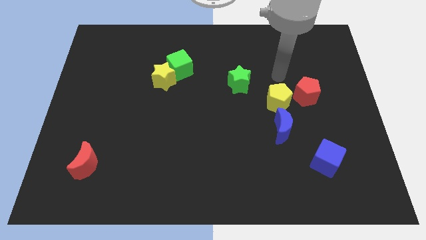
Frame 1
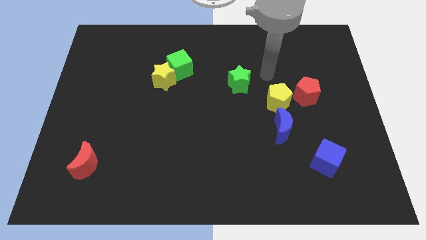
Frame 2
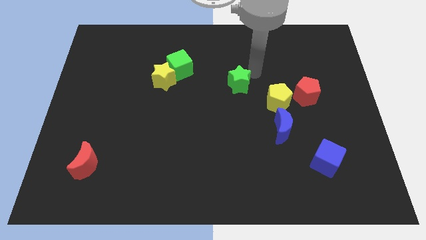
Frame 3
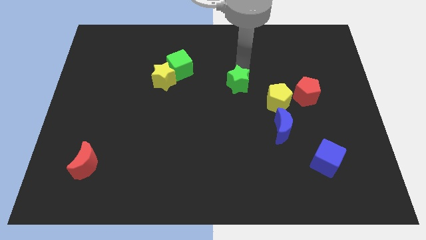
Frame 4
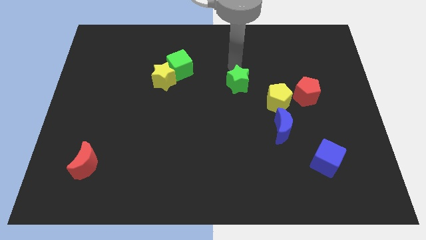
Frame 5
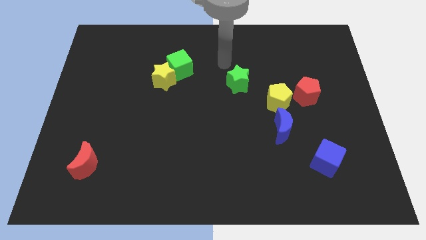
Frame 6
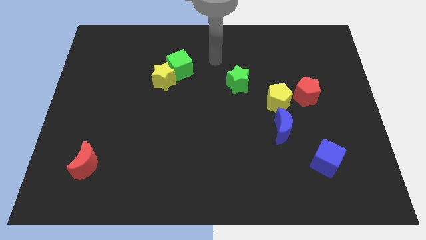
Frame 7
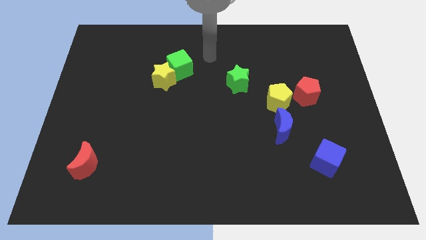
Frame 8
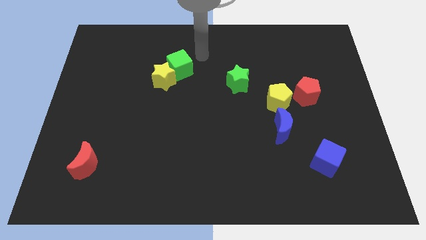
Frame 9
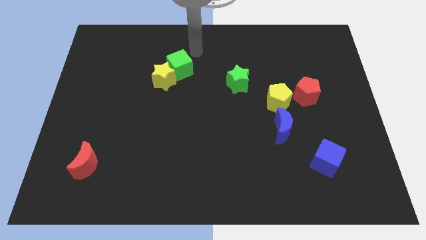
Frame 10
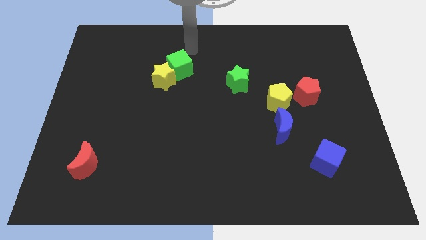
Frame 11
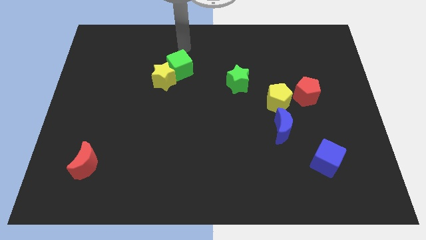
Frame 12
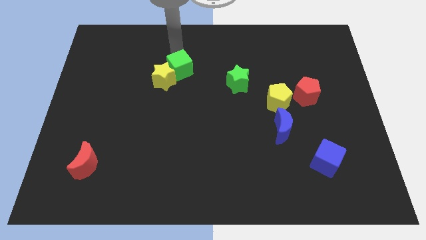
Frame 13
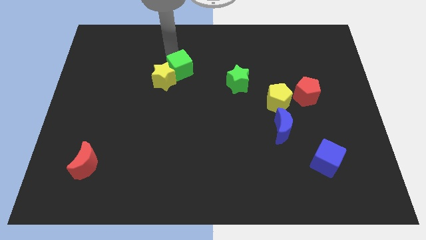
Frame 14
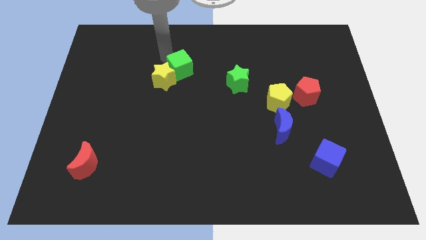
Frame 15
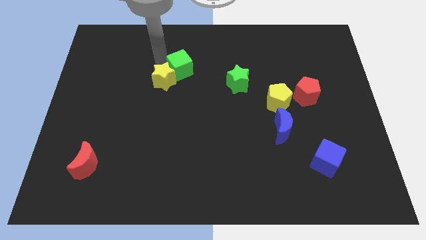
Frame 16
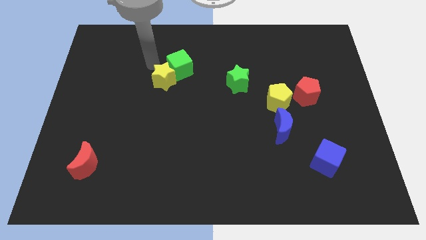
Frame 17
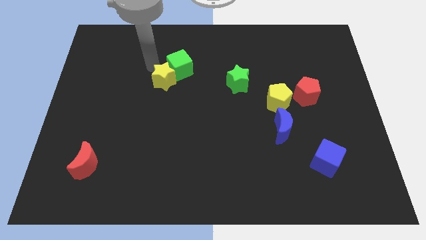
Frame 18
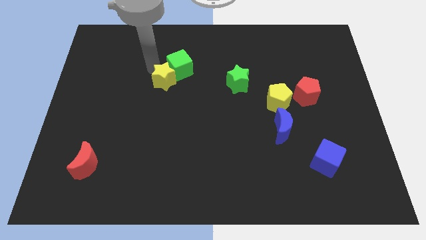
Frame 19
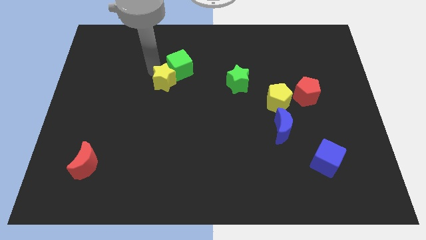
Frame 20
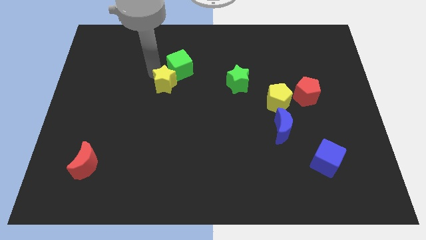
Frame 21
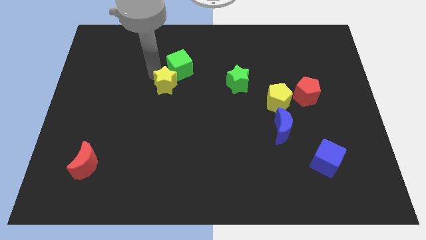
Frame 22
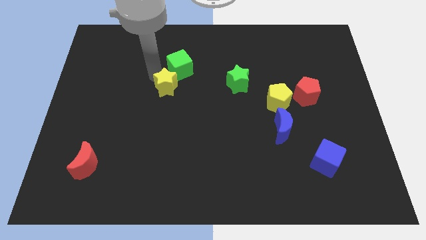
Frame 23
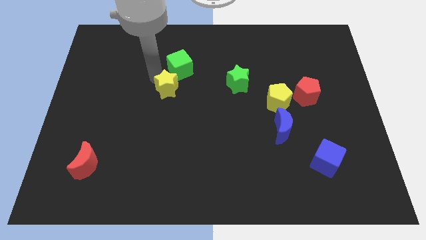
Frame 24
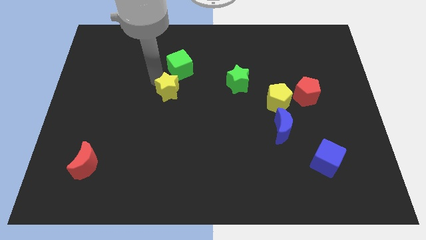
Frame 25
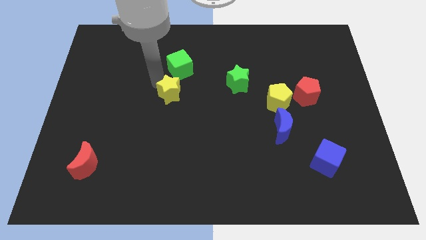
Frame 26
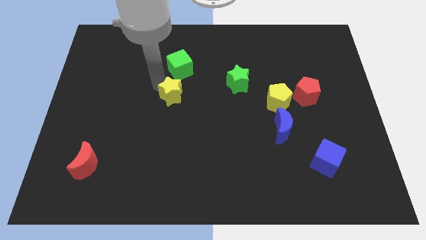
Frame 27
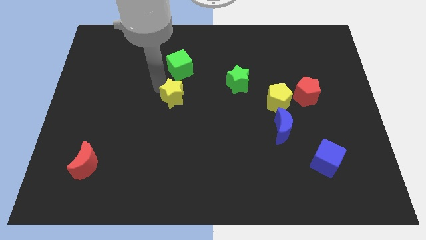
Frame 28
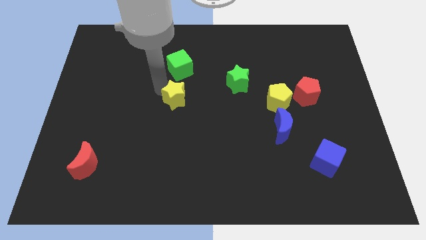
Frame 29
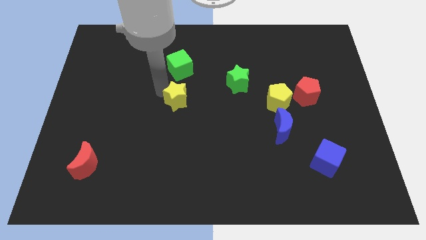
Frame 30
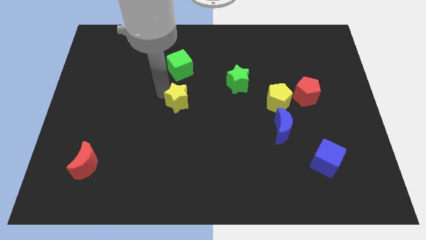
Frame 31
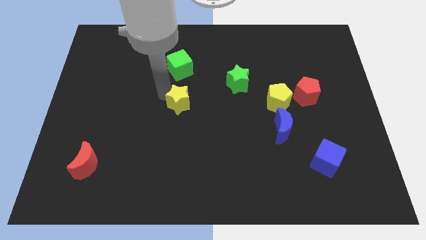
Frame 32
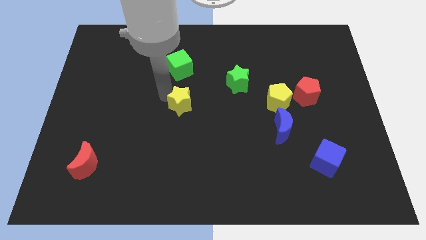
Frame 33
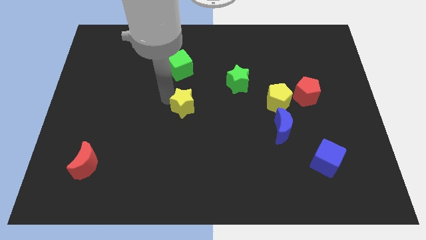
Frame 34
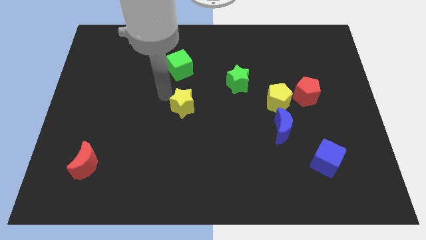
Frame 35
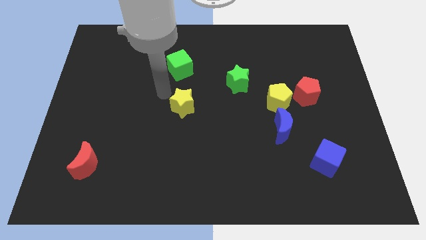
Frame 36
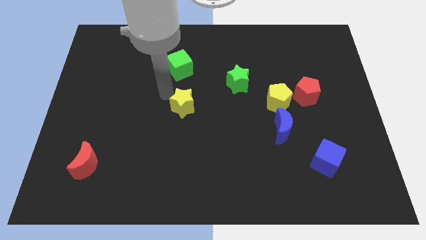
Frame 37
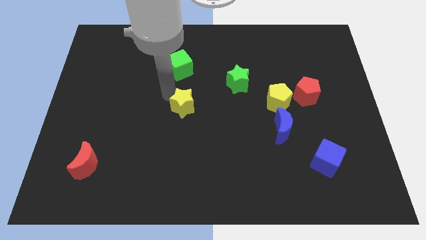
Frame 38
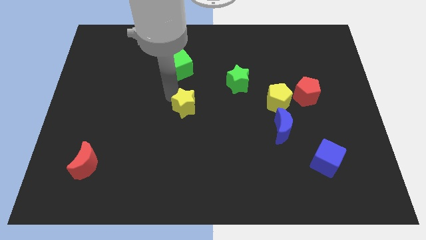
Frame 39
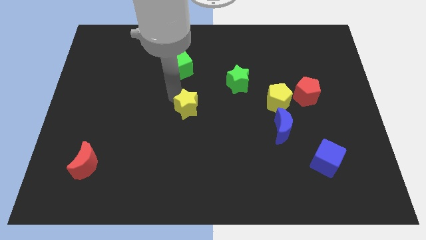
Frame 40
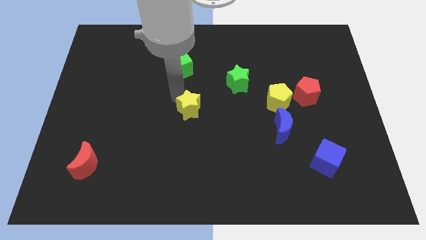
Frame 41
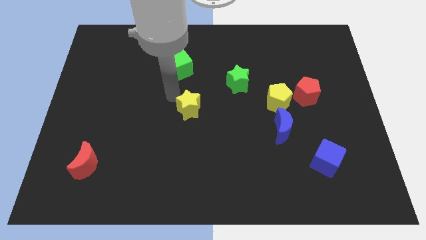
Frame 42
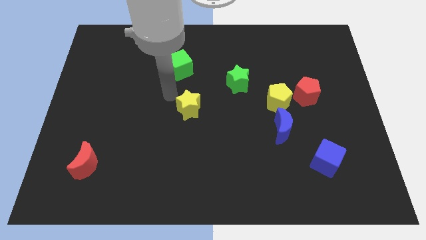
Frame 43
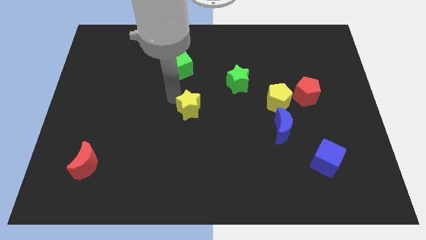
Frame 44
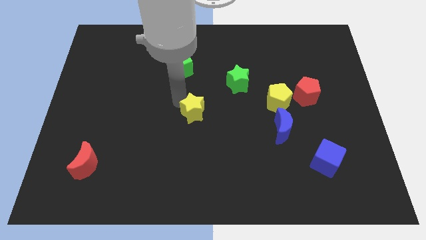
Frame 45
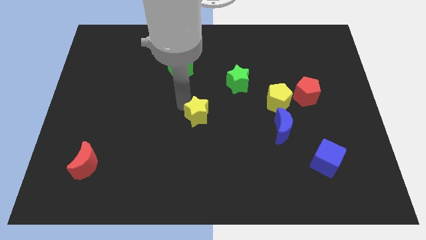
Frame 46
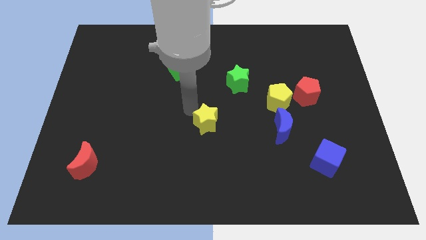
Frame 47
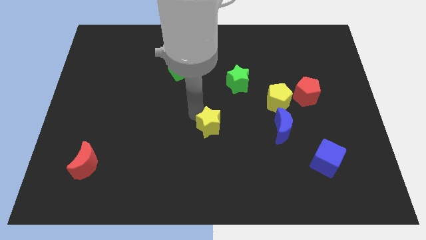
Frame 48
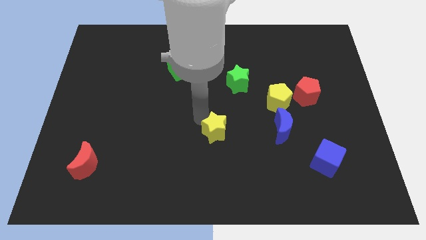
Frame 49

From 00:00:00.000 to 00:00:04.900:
move the yellow star diagonally down and right

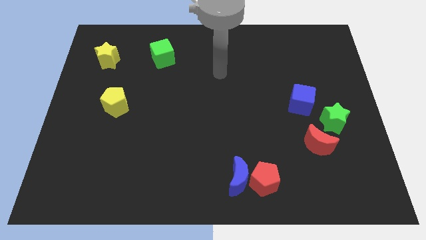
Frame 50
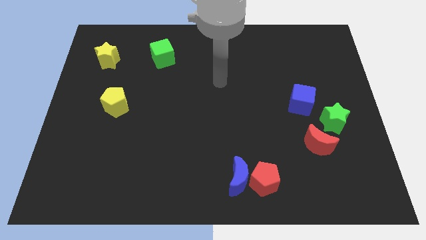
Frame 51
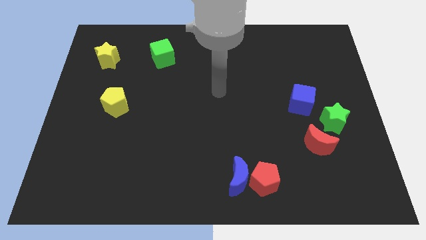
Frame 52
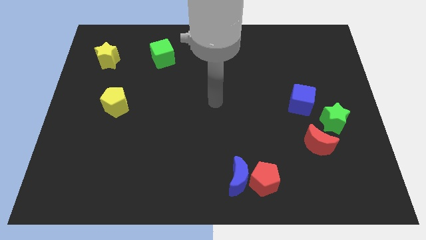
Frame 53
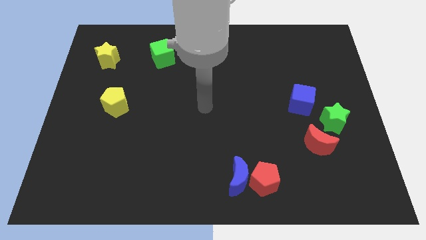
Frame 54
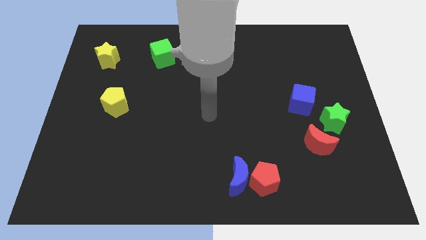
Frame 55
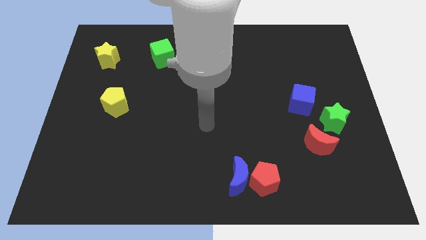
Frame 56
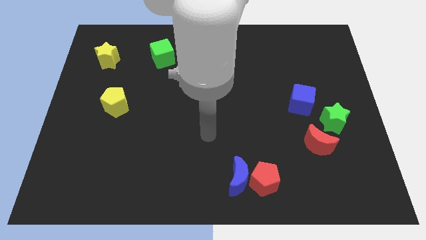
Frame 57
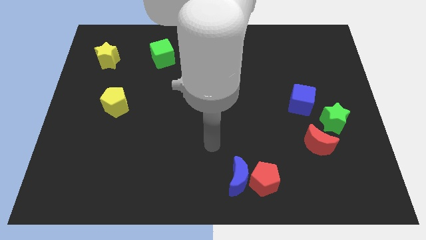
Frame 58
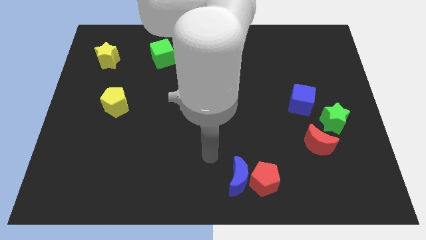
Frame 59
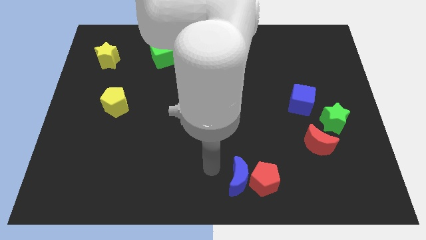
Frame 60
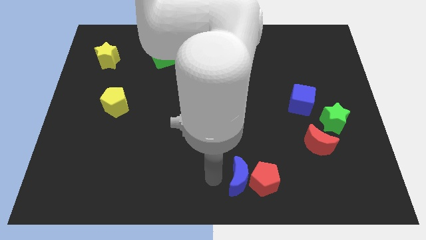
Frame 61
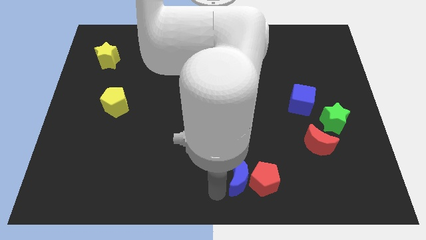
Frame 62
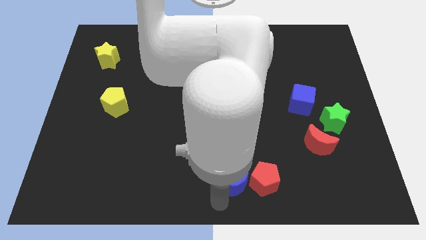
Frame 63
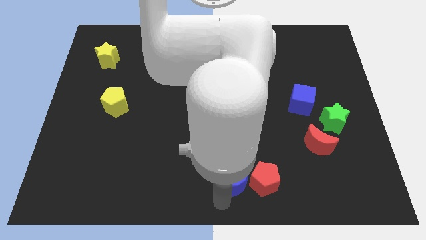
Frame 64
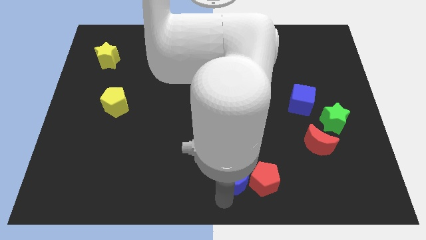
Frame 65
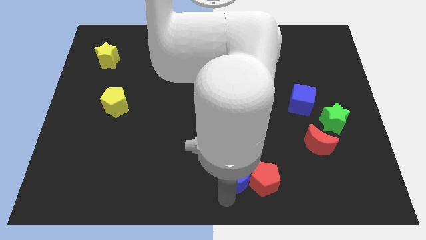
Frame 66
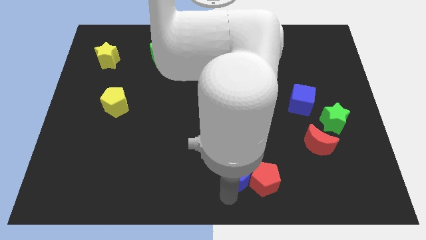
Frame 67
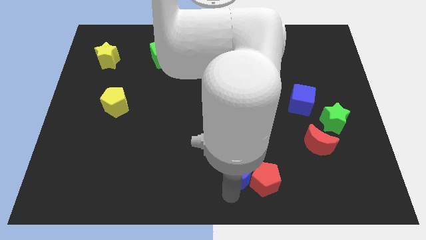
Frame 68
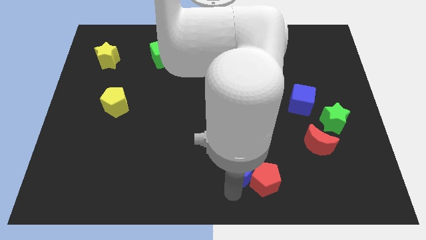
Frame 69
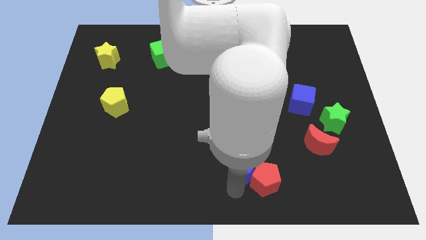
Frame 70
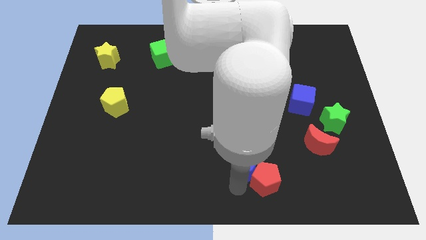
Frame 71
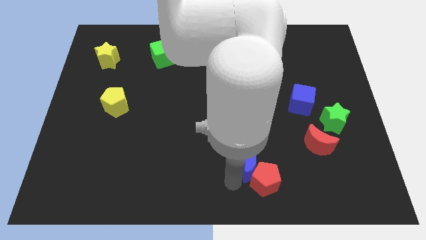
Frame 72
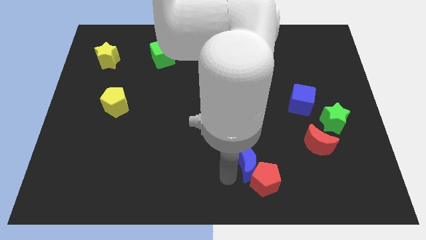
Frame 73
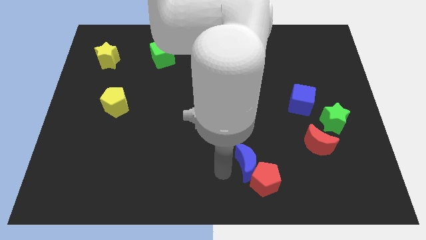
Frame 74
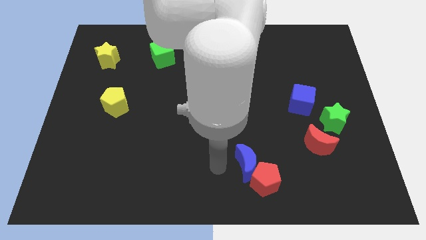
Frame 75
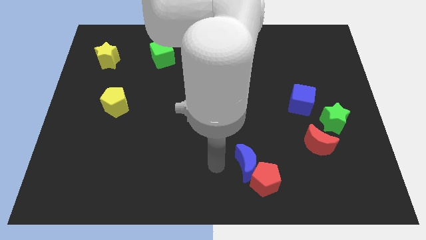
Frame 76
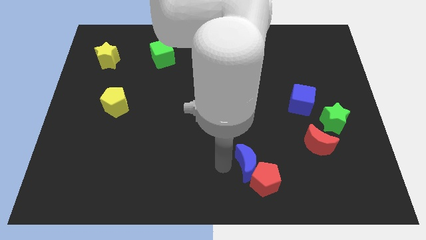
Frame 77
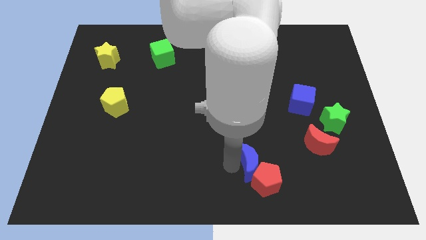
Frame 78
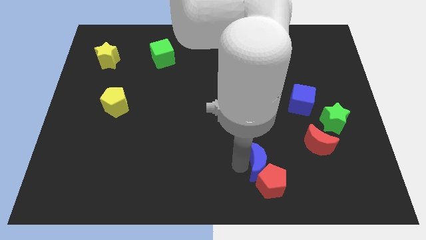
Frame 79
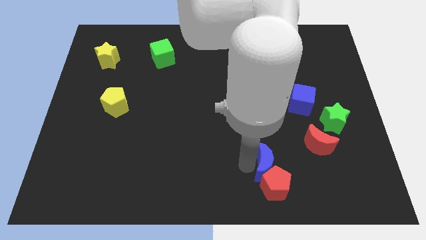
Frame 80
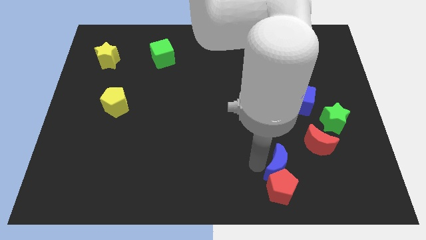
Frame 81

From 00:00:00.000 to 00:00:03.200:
slightly push the blue moon to the right
